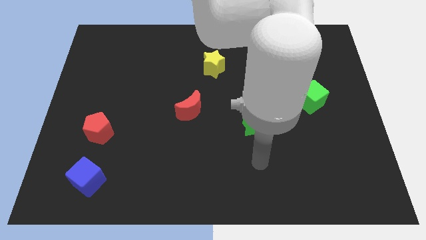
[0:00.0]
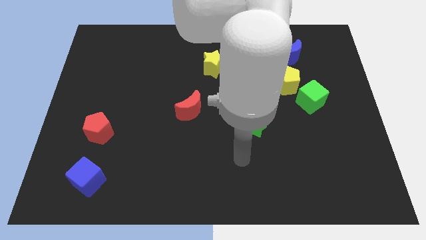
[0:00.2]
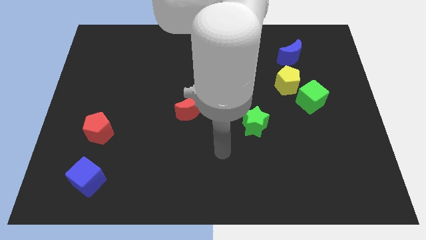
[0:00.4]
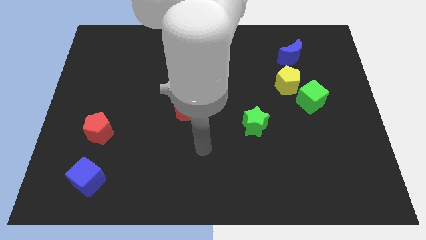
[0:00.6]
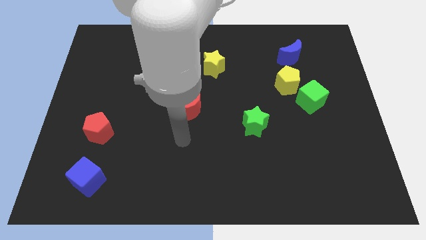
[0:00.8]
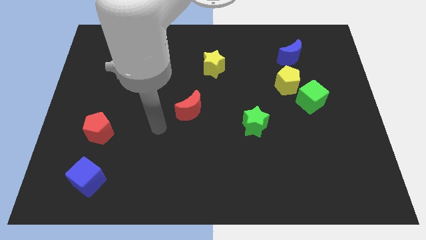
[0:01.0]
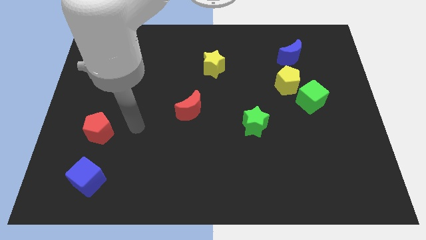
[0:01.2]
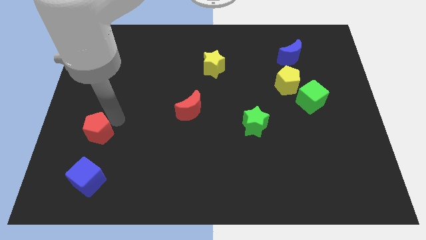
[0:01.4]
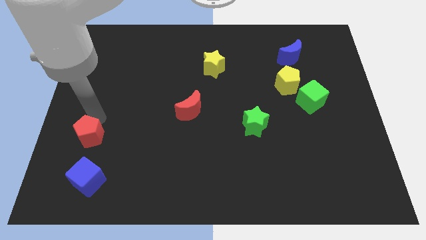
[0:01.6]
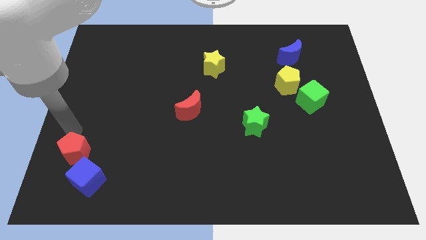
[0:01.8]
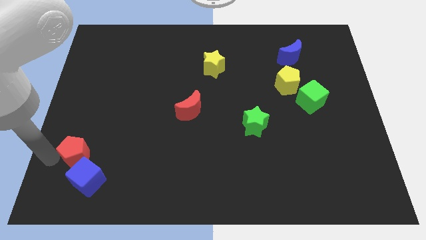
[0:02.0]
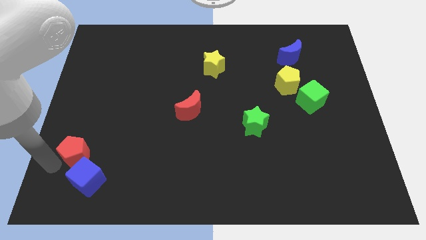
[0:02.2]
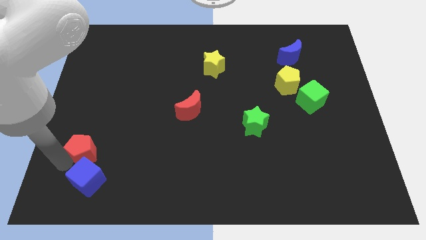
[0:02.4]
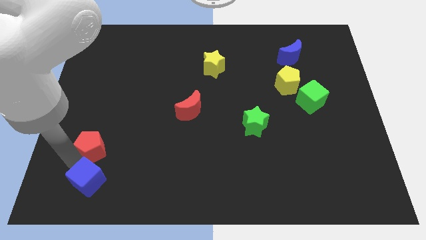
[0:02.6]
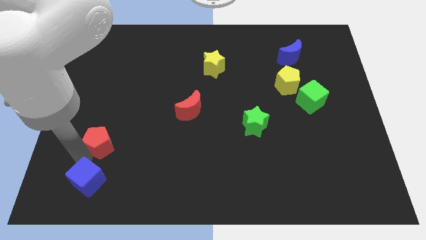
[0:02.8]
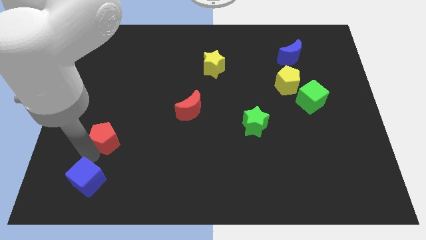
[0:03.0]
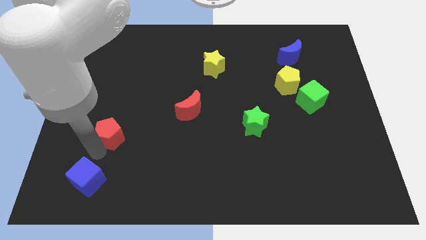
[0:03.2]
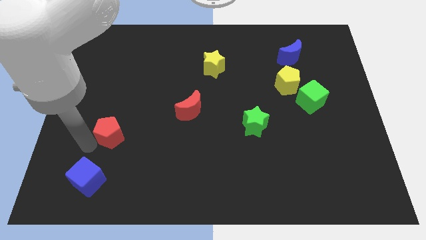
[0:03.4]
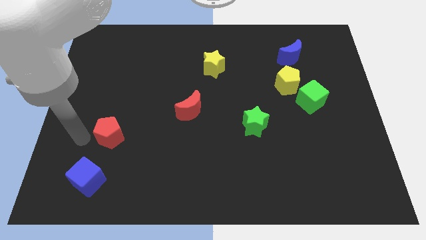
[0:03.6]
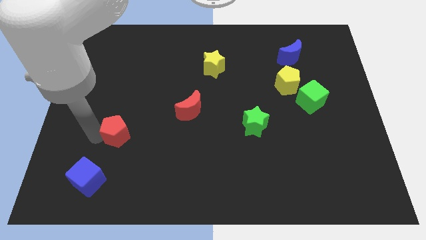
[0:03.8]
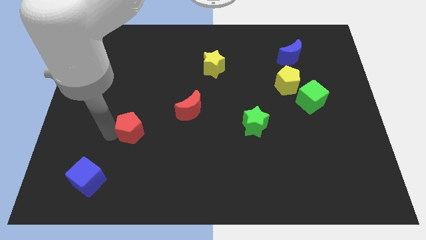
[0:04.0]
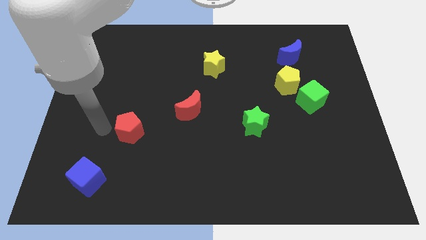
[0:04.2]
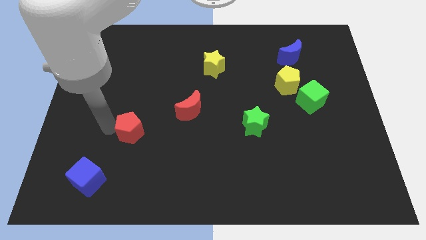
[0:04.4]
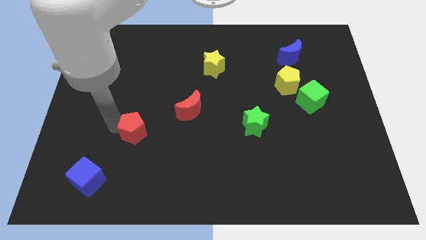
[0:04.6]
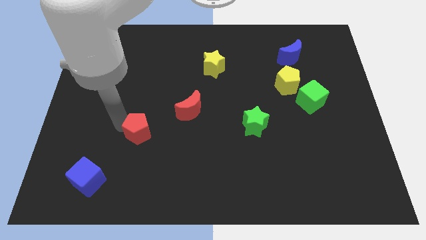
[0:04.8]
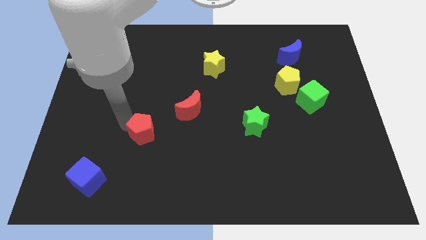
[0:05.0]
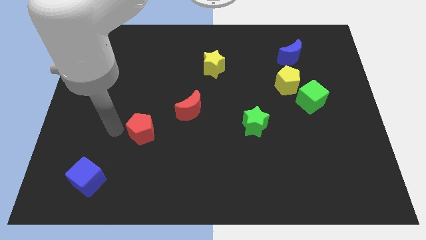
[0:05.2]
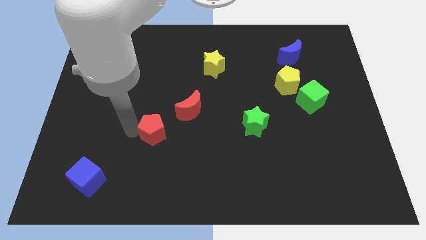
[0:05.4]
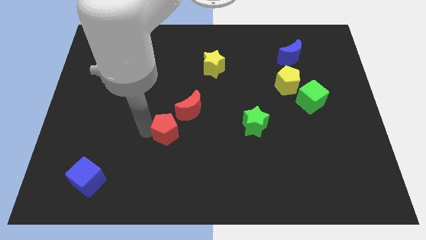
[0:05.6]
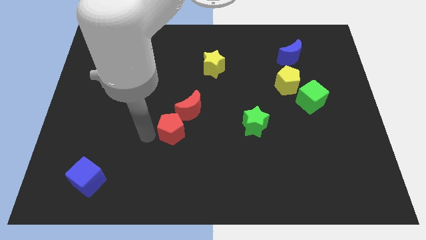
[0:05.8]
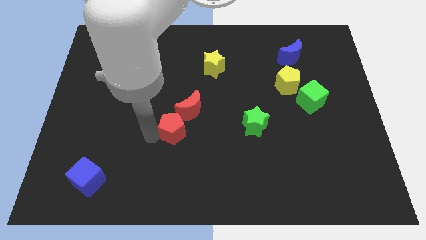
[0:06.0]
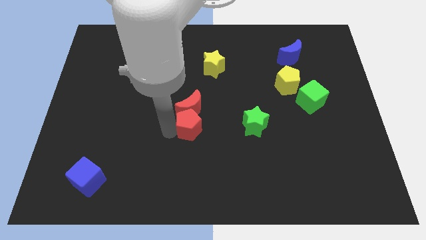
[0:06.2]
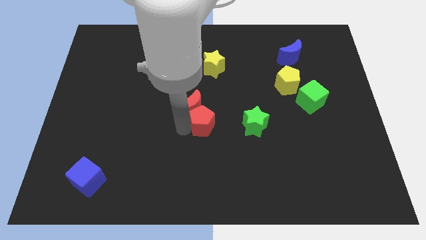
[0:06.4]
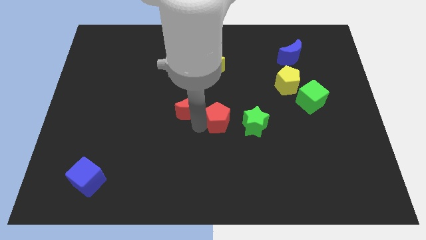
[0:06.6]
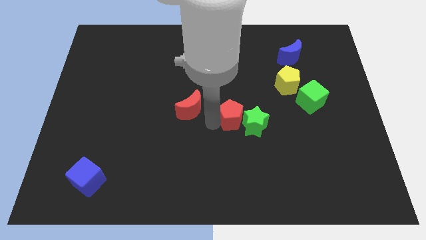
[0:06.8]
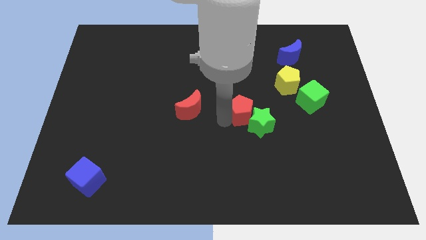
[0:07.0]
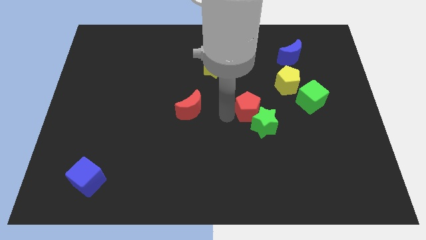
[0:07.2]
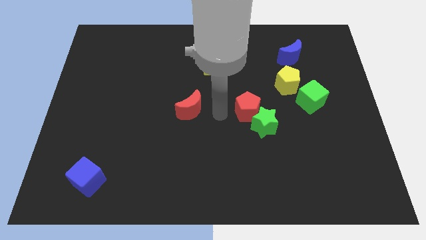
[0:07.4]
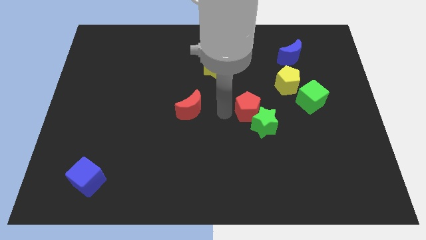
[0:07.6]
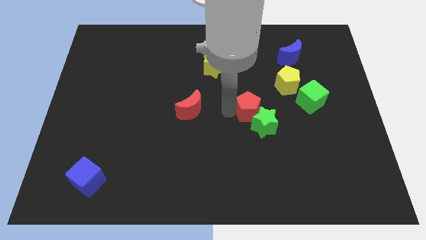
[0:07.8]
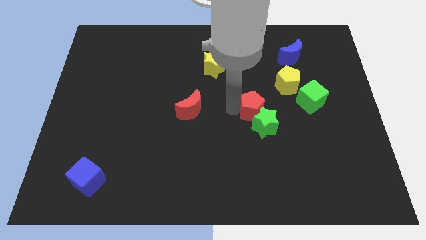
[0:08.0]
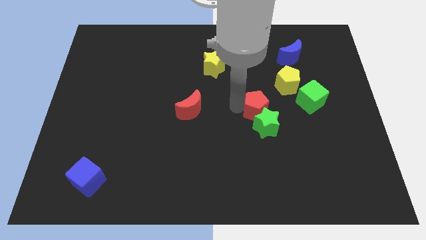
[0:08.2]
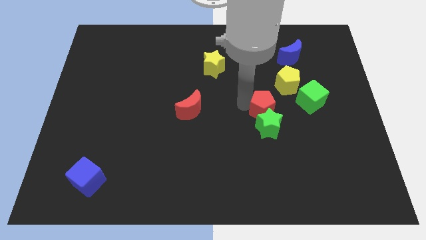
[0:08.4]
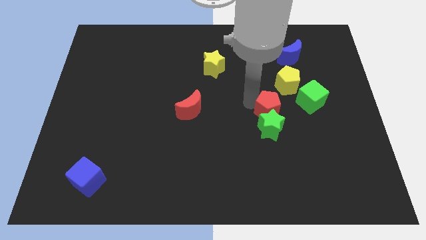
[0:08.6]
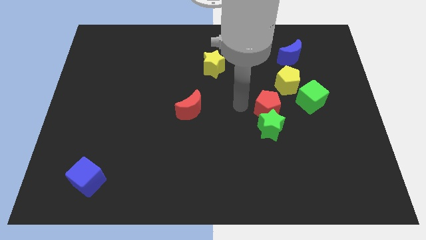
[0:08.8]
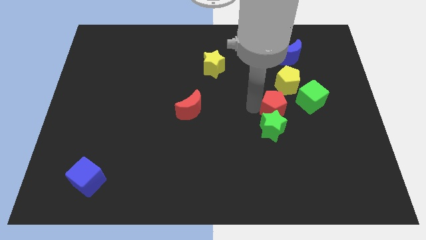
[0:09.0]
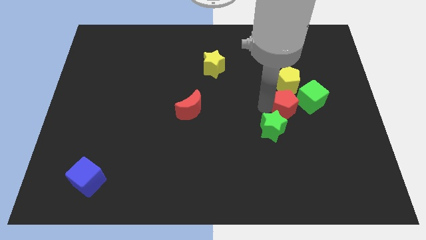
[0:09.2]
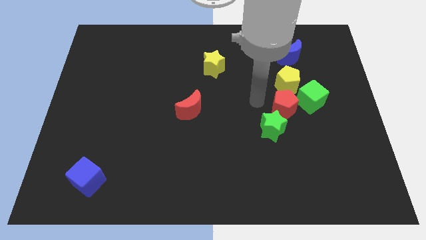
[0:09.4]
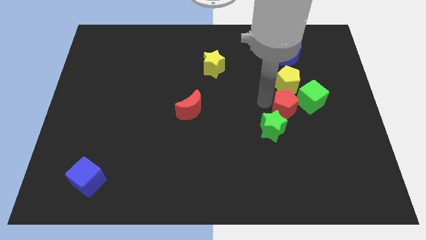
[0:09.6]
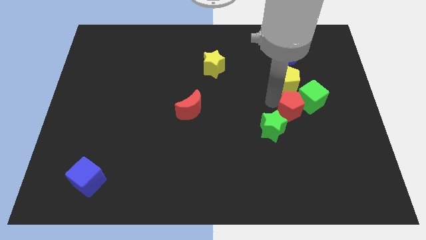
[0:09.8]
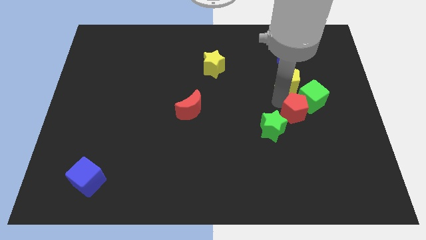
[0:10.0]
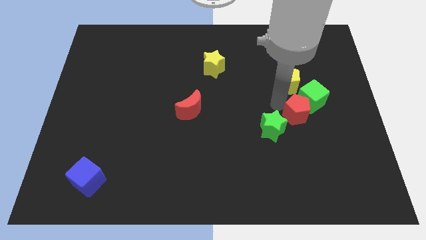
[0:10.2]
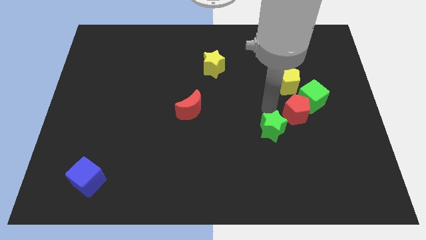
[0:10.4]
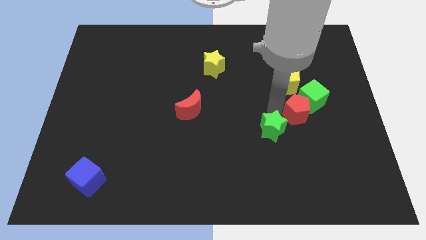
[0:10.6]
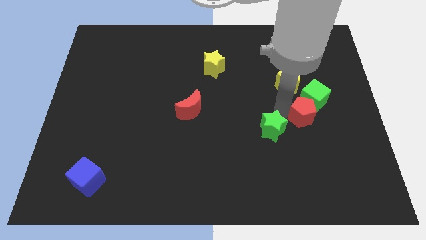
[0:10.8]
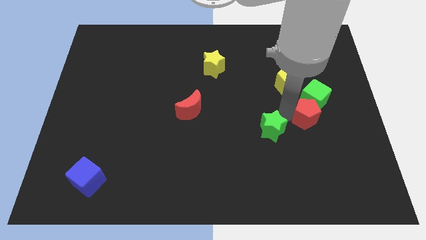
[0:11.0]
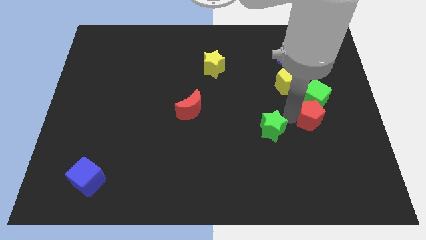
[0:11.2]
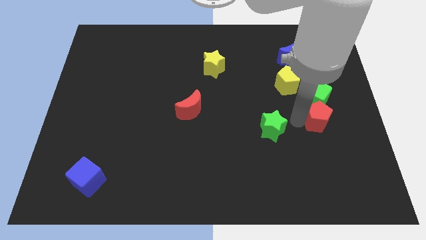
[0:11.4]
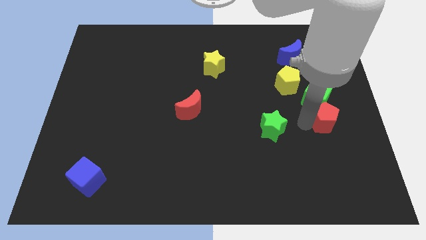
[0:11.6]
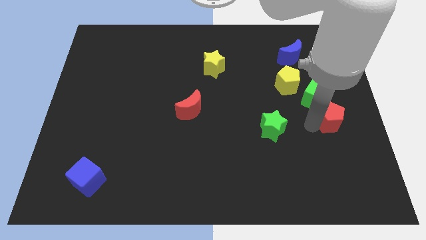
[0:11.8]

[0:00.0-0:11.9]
slide the red pentagon to the right side of the board

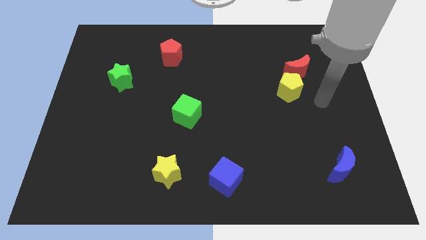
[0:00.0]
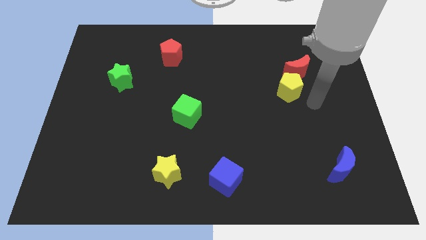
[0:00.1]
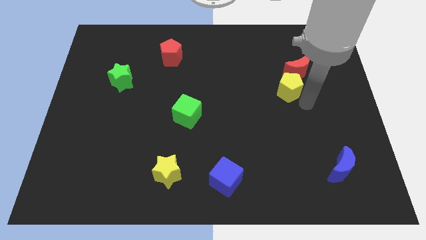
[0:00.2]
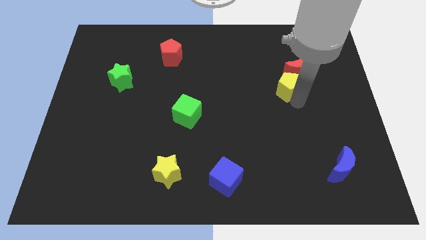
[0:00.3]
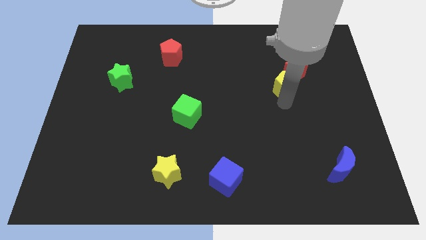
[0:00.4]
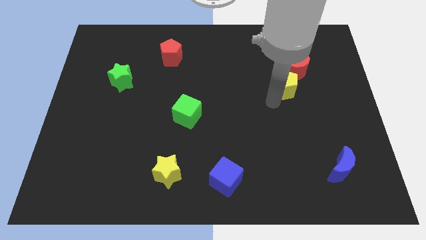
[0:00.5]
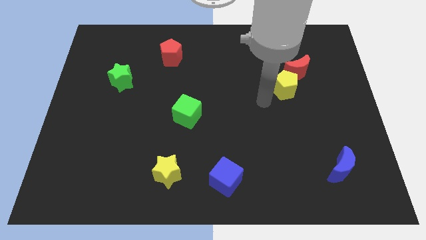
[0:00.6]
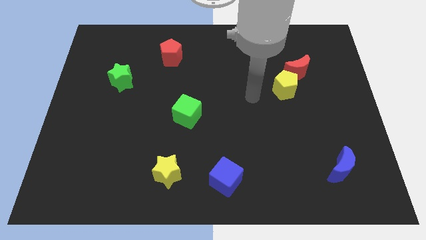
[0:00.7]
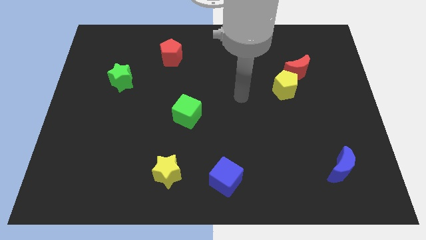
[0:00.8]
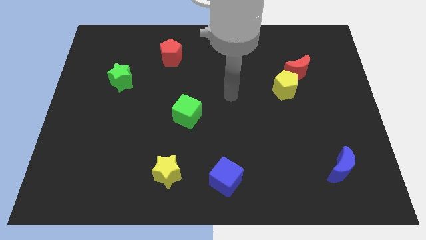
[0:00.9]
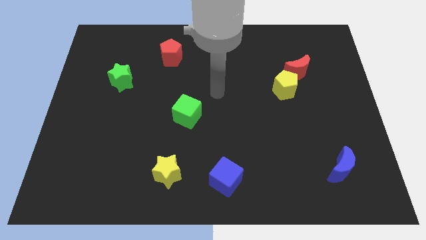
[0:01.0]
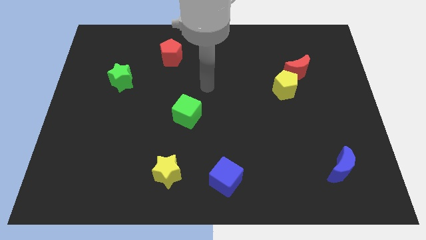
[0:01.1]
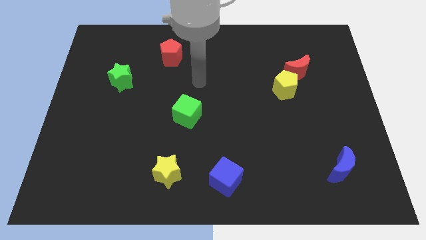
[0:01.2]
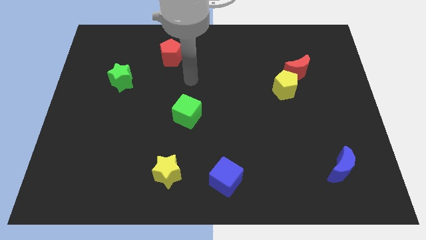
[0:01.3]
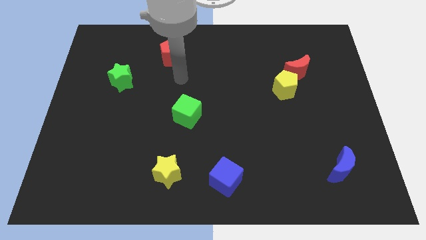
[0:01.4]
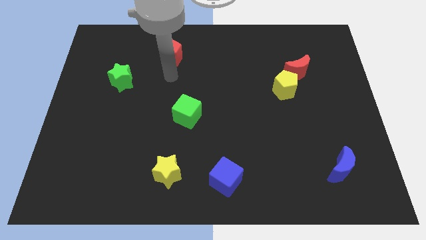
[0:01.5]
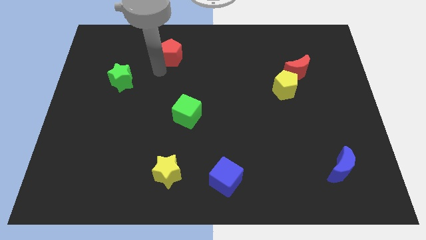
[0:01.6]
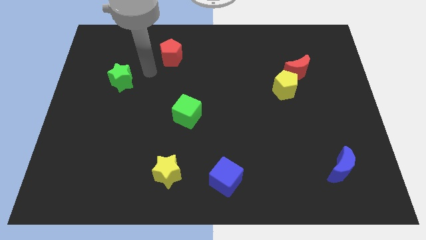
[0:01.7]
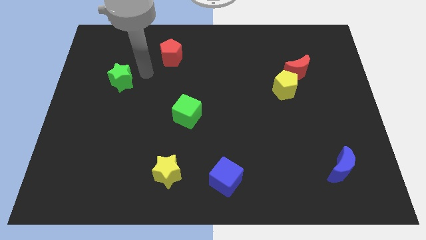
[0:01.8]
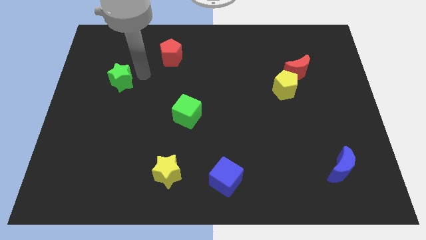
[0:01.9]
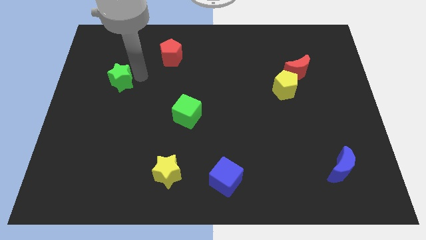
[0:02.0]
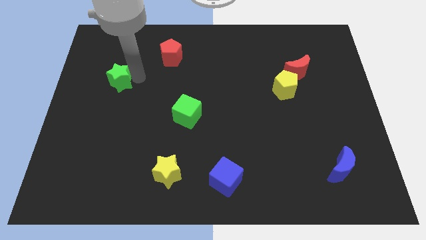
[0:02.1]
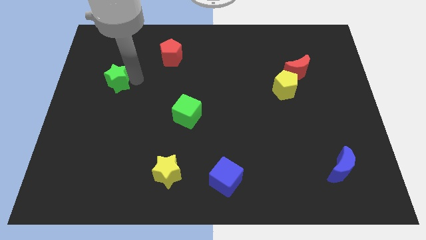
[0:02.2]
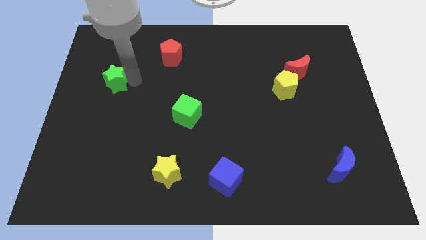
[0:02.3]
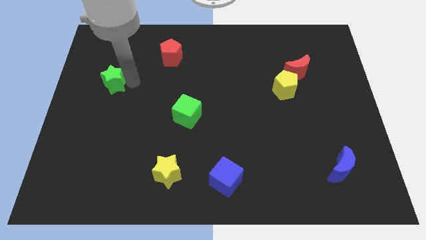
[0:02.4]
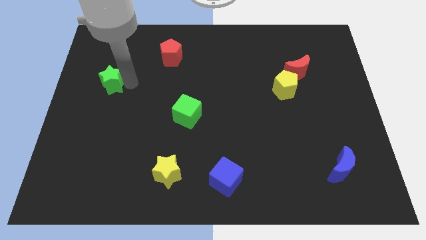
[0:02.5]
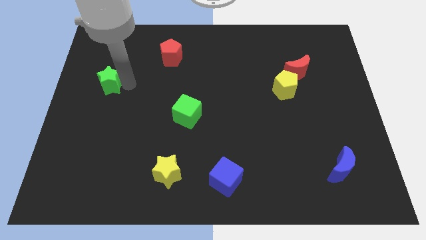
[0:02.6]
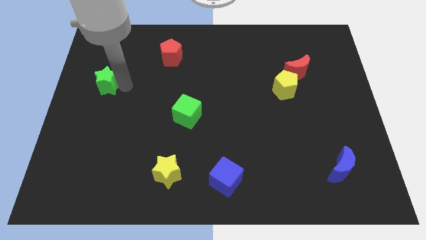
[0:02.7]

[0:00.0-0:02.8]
push the green star to the center left
